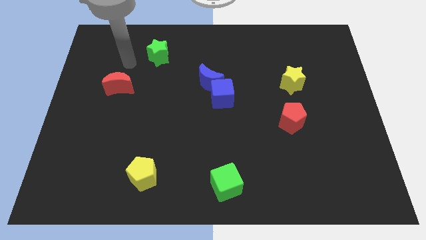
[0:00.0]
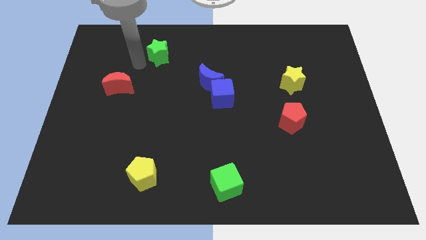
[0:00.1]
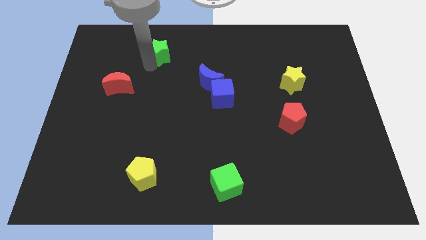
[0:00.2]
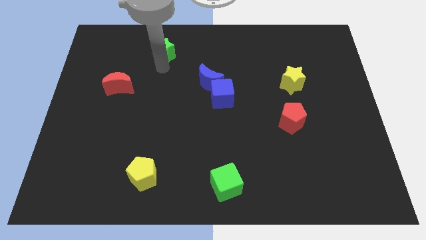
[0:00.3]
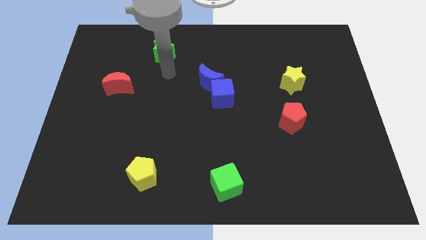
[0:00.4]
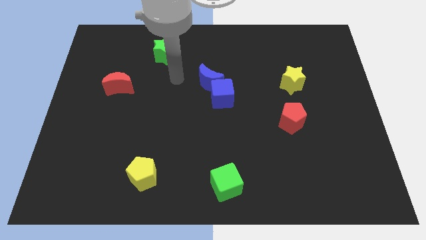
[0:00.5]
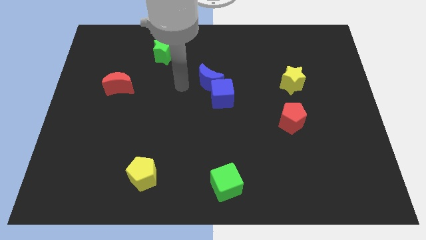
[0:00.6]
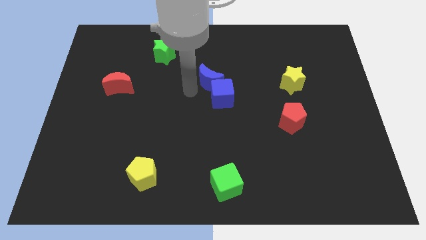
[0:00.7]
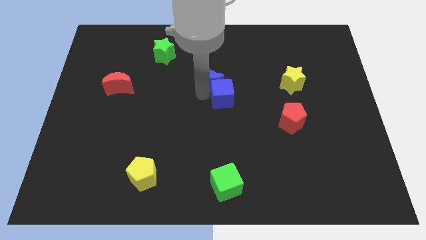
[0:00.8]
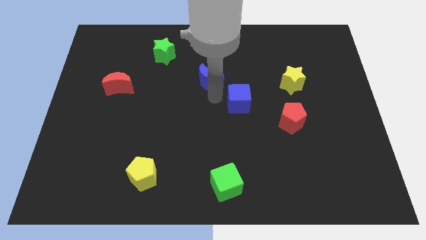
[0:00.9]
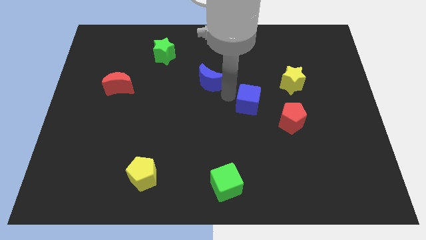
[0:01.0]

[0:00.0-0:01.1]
separate the blue moon from the blue cube

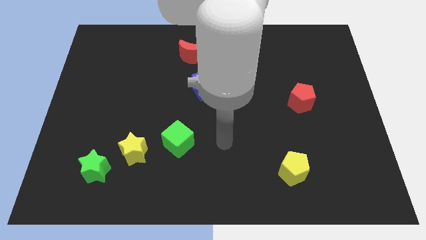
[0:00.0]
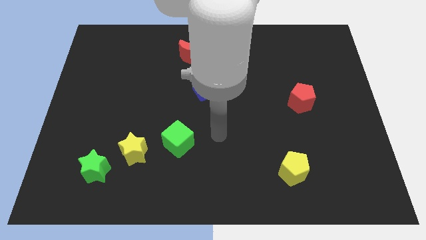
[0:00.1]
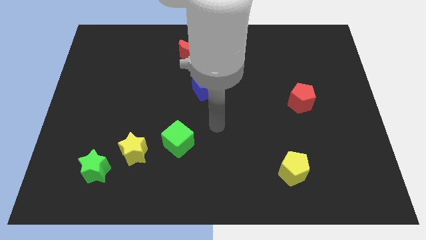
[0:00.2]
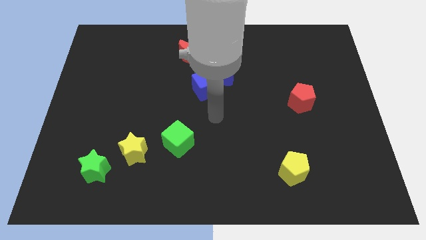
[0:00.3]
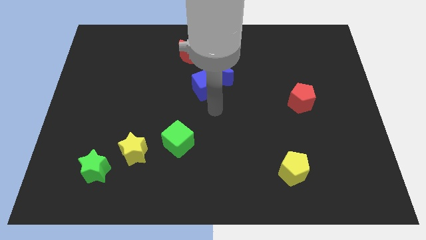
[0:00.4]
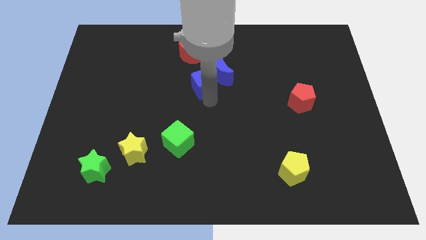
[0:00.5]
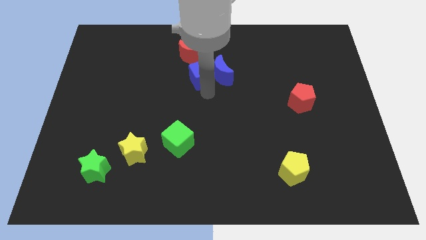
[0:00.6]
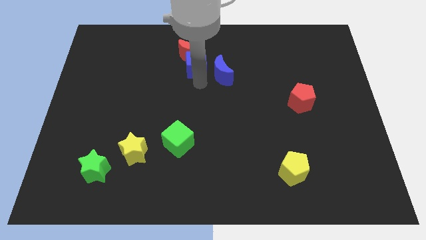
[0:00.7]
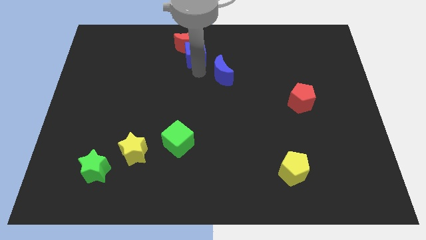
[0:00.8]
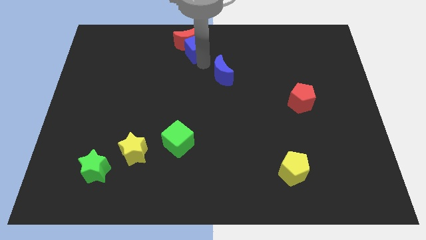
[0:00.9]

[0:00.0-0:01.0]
move the blue moon away from the blue cube

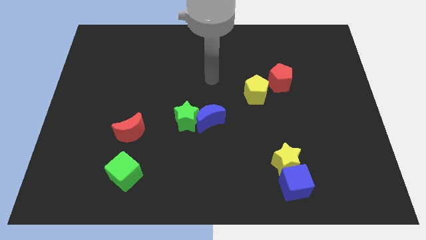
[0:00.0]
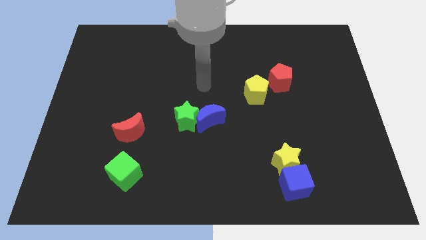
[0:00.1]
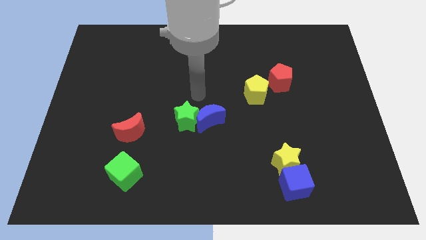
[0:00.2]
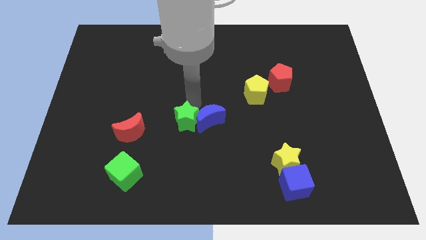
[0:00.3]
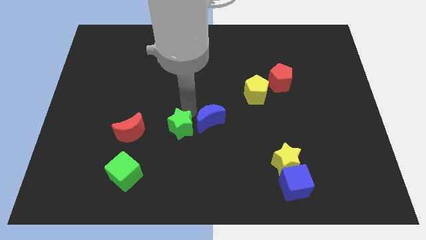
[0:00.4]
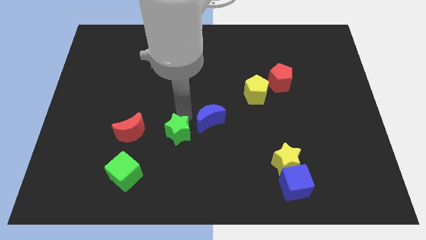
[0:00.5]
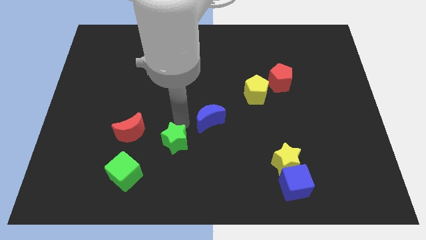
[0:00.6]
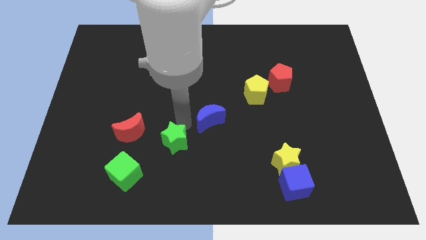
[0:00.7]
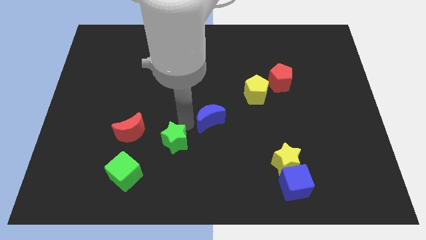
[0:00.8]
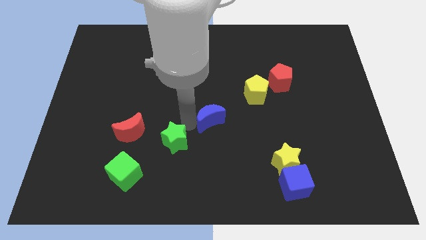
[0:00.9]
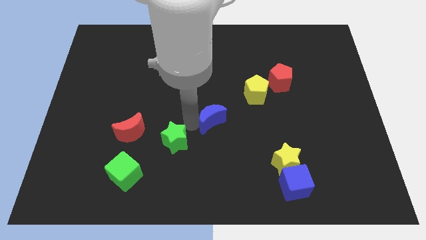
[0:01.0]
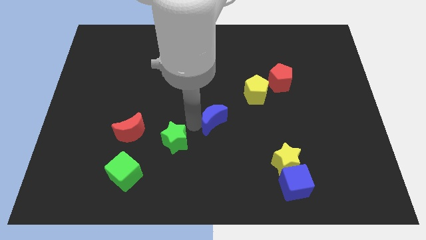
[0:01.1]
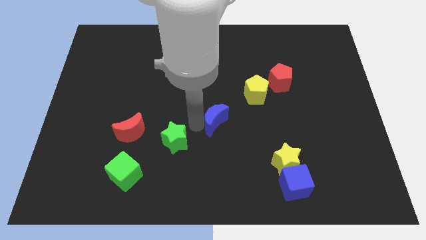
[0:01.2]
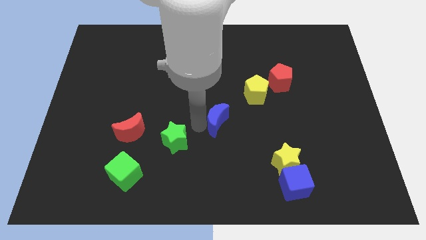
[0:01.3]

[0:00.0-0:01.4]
separate the blue moon from the green star

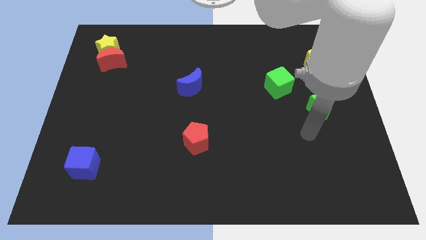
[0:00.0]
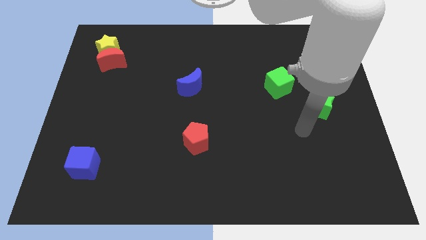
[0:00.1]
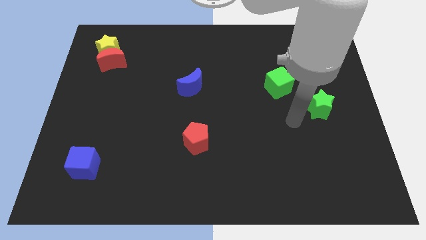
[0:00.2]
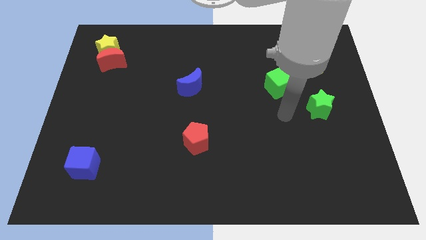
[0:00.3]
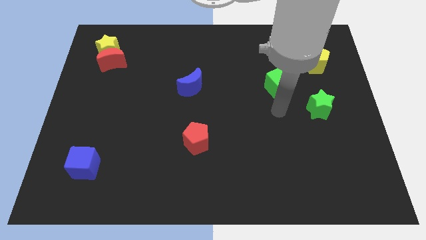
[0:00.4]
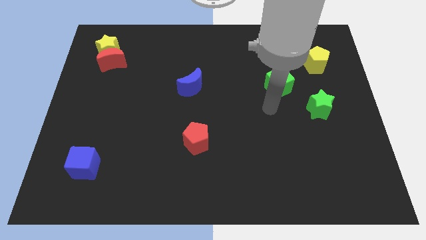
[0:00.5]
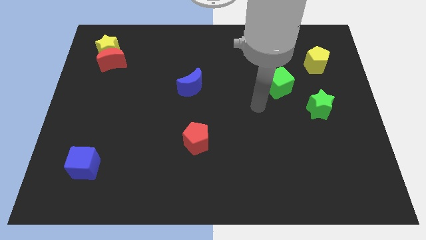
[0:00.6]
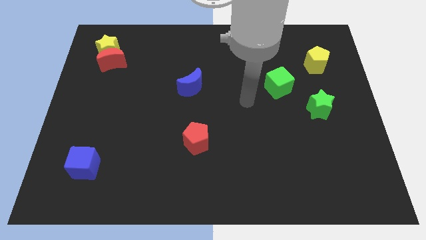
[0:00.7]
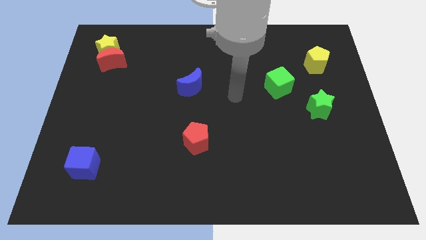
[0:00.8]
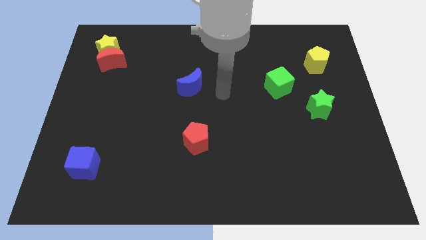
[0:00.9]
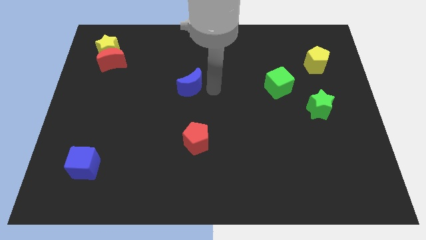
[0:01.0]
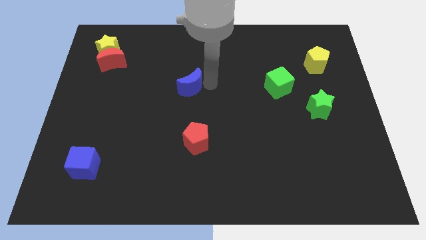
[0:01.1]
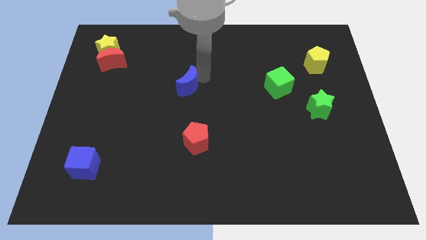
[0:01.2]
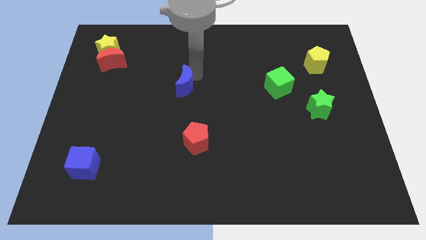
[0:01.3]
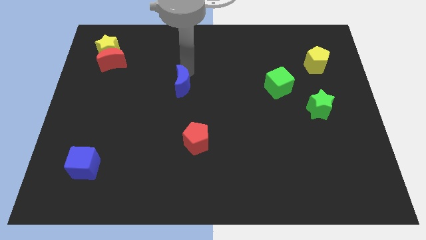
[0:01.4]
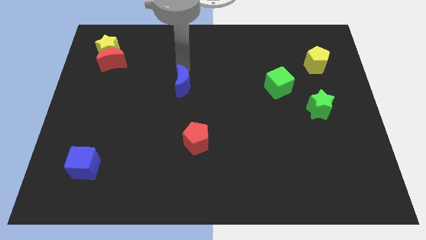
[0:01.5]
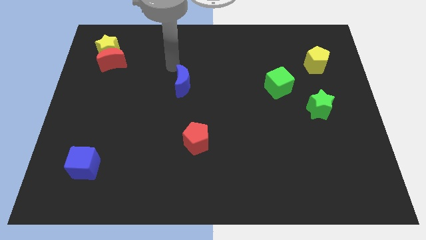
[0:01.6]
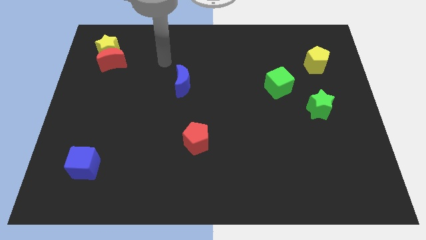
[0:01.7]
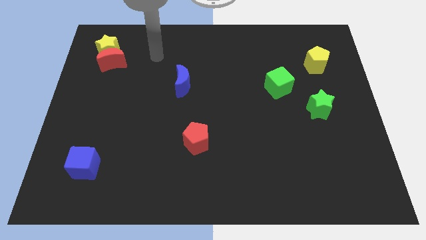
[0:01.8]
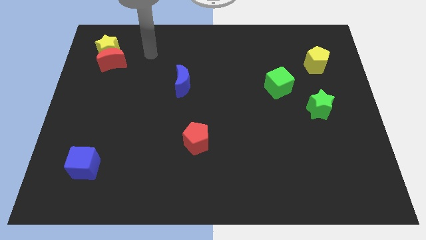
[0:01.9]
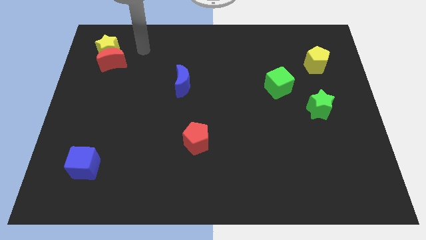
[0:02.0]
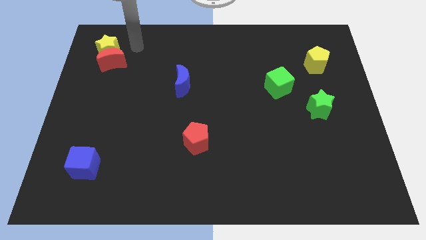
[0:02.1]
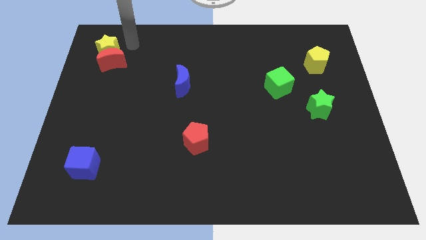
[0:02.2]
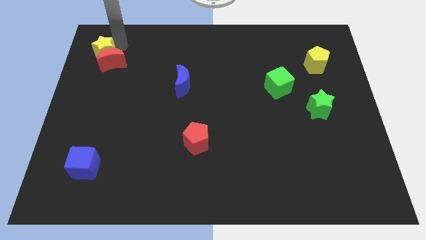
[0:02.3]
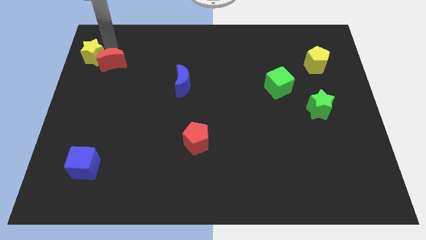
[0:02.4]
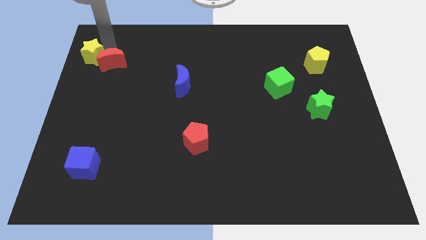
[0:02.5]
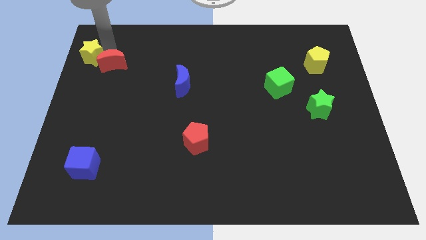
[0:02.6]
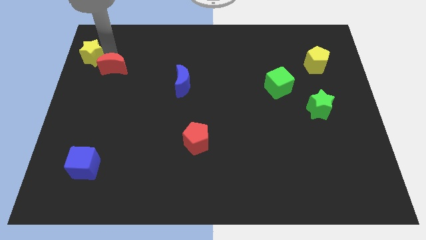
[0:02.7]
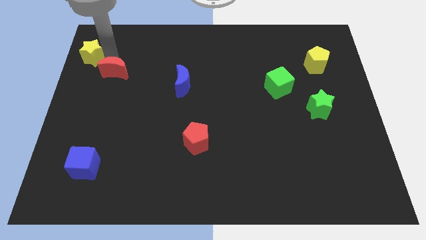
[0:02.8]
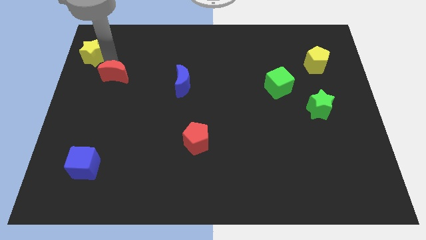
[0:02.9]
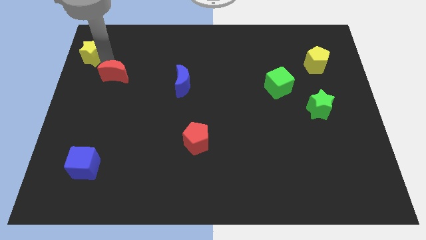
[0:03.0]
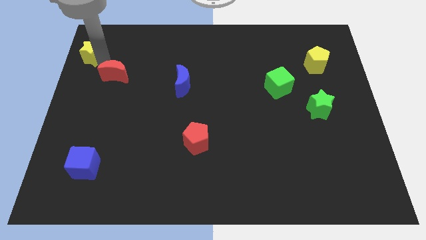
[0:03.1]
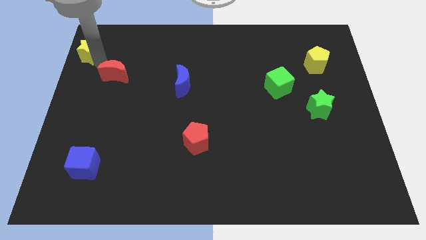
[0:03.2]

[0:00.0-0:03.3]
separate the red moon from the yellow star

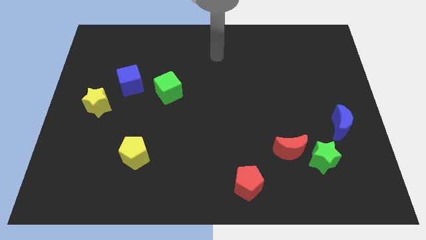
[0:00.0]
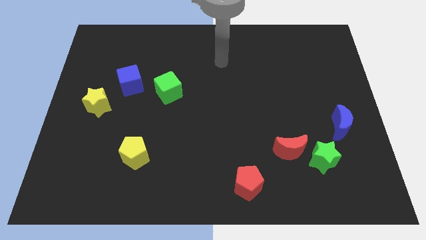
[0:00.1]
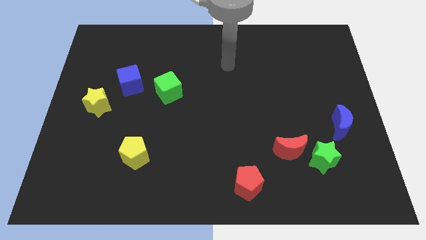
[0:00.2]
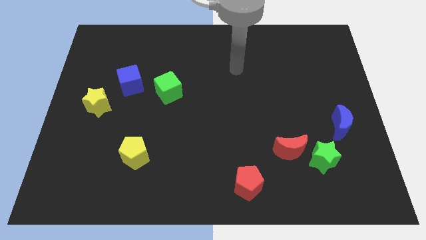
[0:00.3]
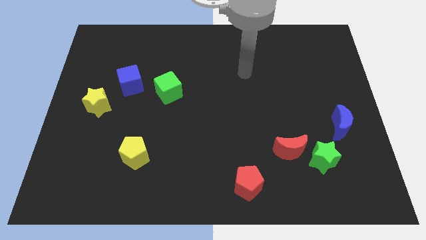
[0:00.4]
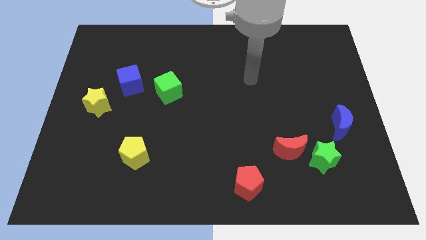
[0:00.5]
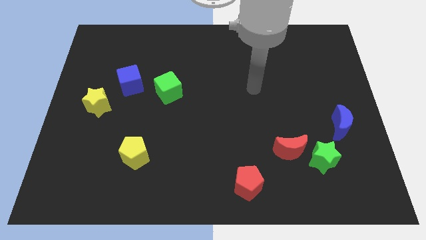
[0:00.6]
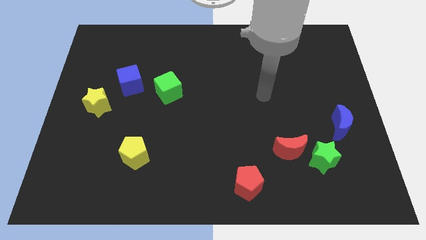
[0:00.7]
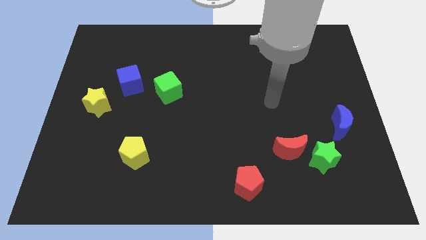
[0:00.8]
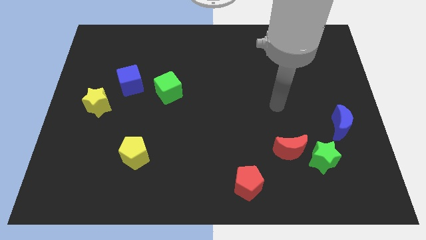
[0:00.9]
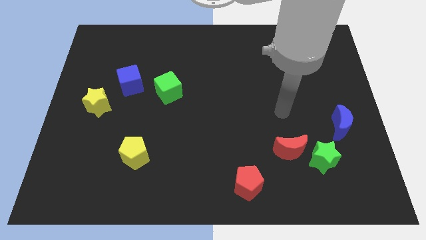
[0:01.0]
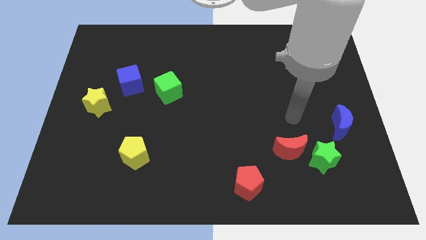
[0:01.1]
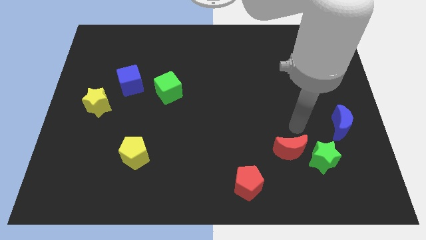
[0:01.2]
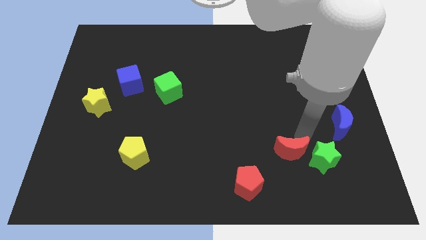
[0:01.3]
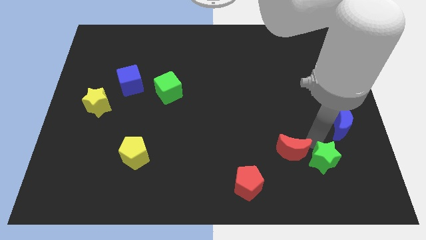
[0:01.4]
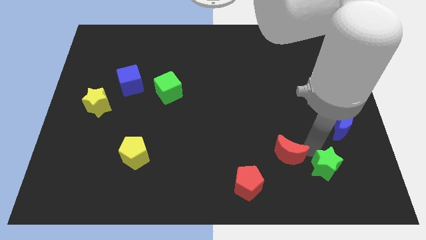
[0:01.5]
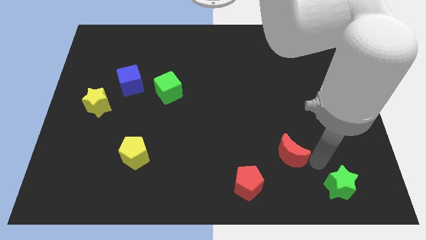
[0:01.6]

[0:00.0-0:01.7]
move the red moon away from the green star

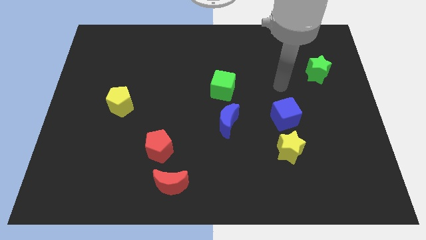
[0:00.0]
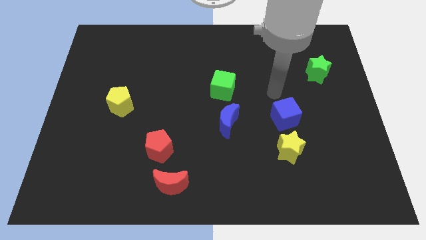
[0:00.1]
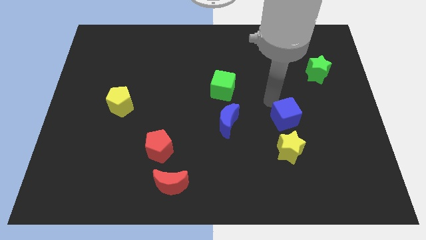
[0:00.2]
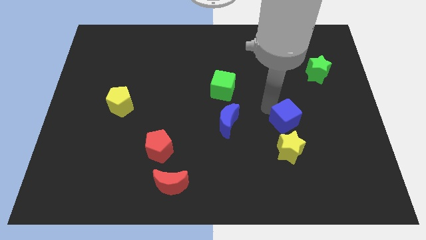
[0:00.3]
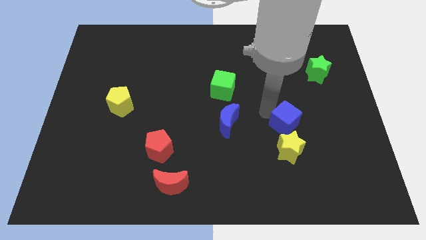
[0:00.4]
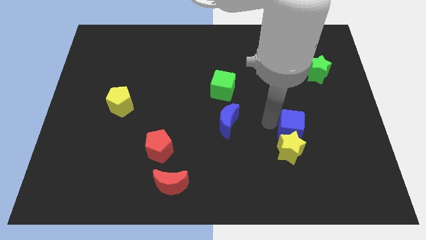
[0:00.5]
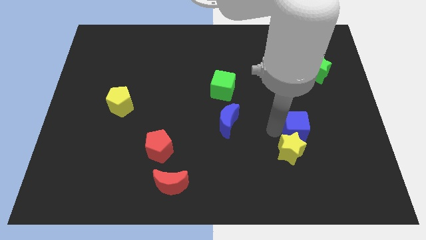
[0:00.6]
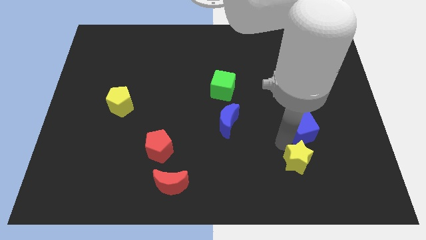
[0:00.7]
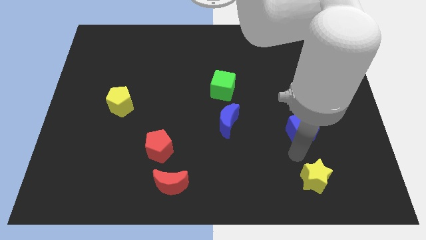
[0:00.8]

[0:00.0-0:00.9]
pull the blue cube apart from the yellow star
